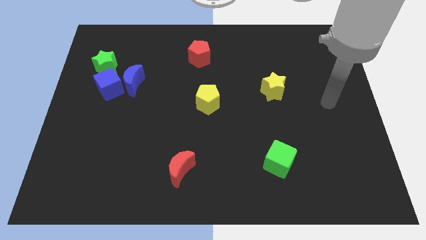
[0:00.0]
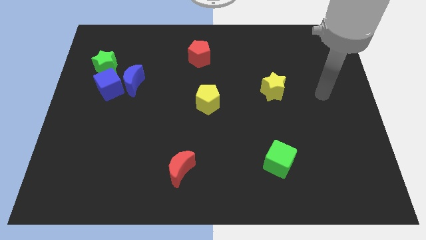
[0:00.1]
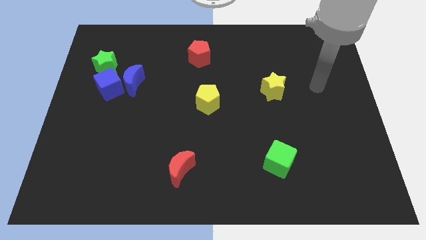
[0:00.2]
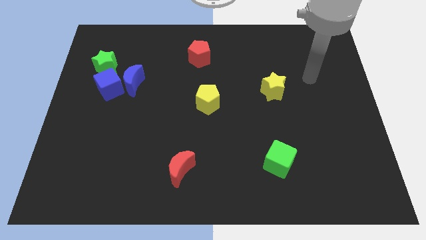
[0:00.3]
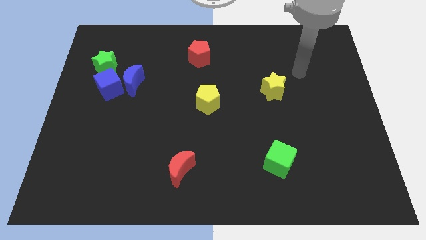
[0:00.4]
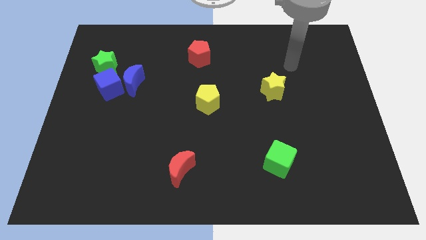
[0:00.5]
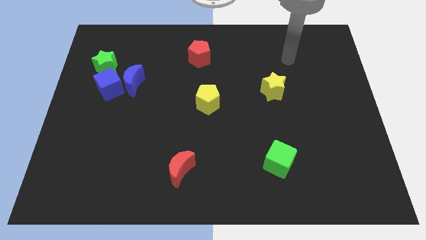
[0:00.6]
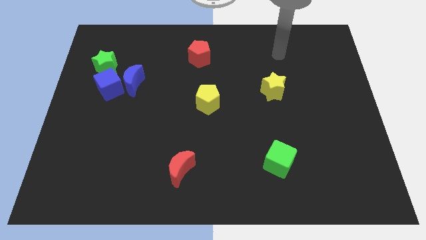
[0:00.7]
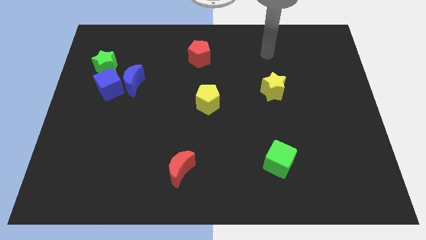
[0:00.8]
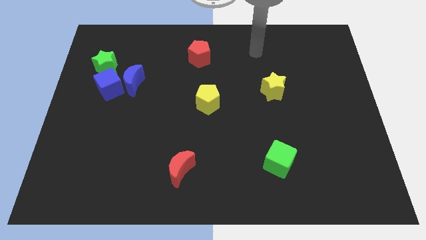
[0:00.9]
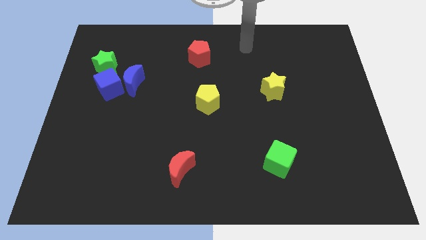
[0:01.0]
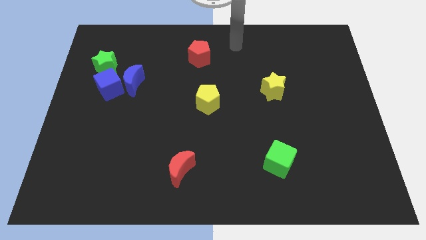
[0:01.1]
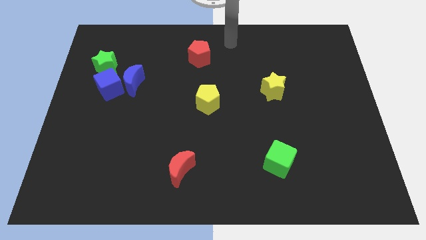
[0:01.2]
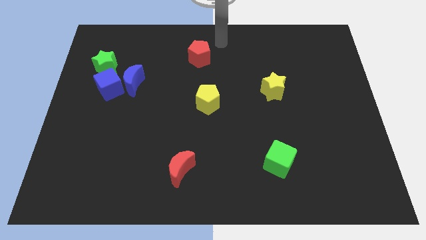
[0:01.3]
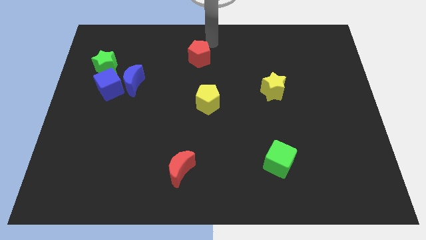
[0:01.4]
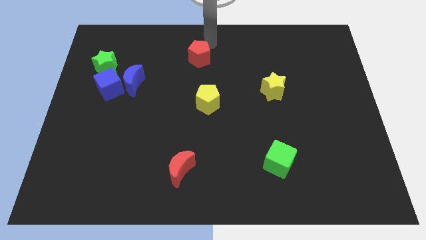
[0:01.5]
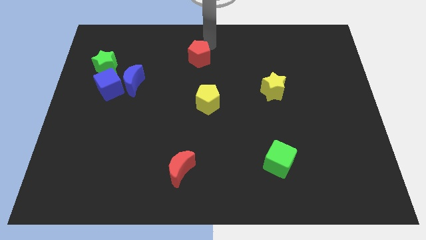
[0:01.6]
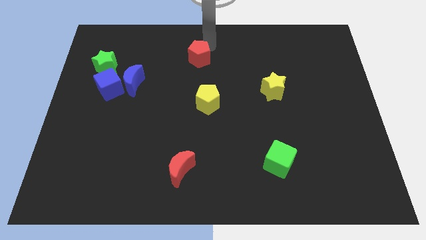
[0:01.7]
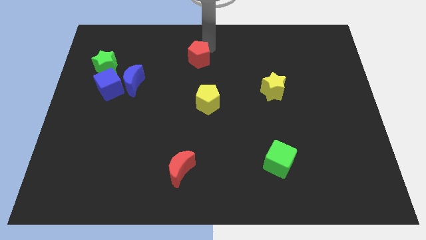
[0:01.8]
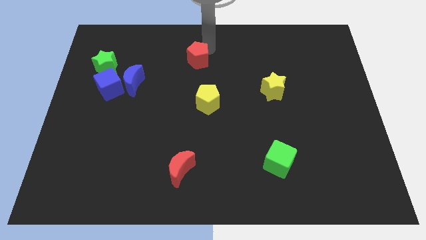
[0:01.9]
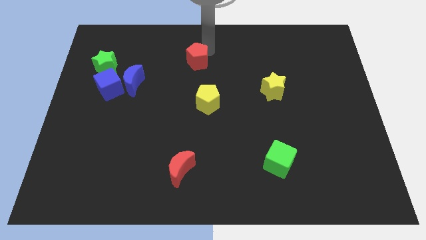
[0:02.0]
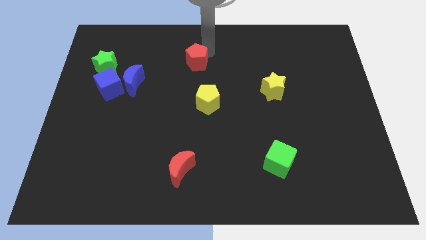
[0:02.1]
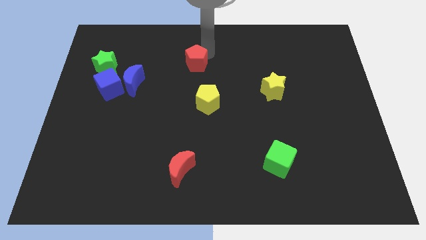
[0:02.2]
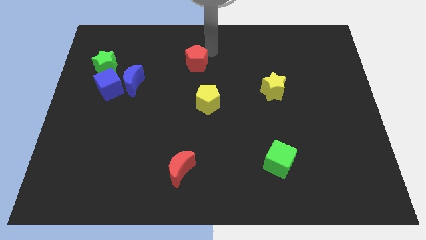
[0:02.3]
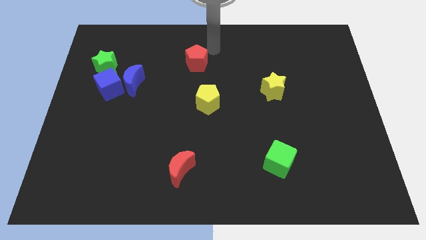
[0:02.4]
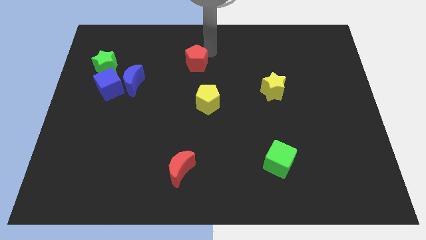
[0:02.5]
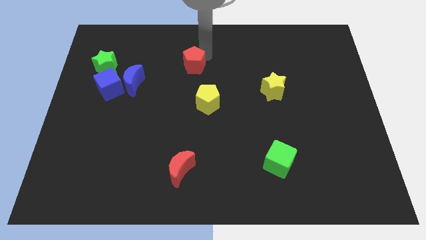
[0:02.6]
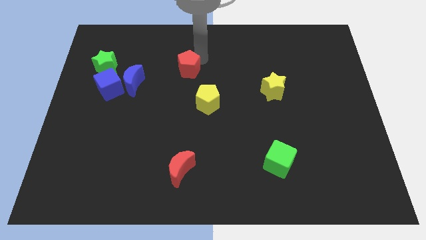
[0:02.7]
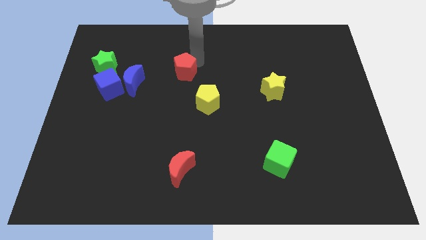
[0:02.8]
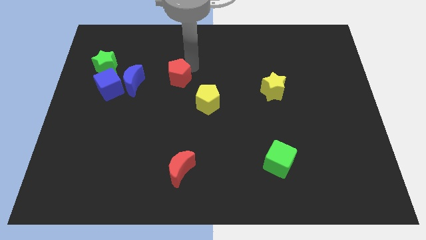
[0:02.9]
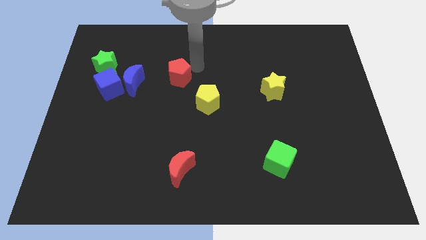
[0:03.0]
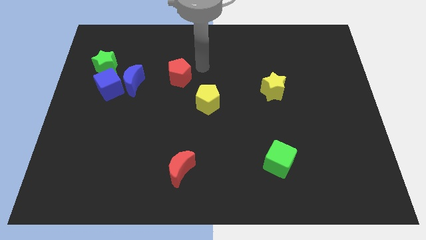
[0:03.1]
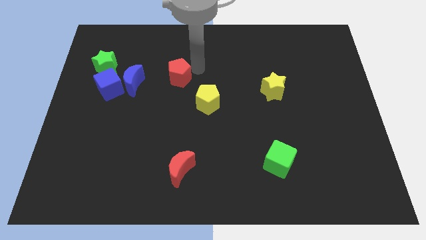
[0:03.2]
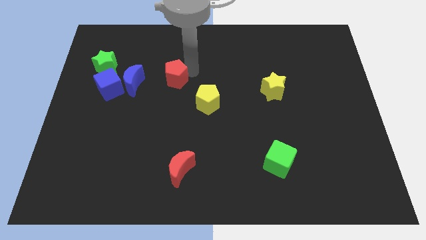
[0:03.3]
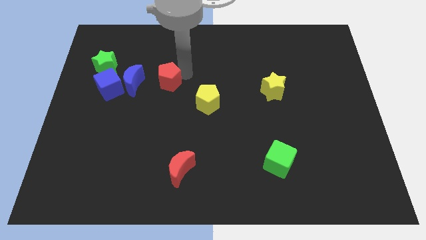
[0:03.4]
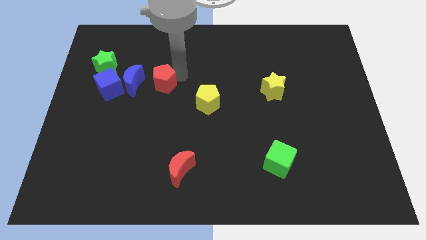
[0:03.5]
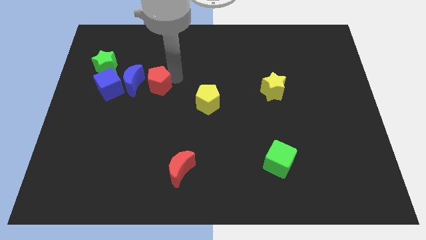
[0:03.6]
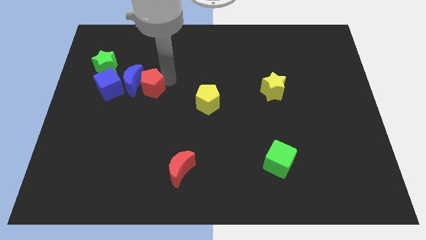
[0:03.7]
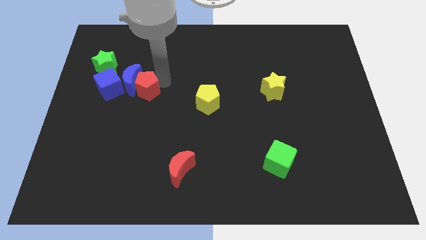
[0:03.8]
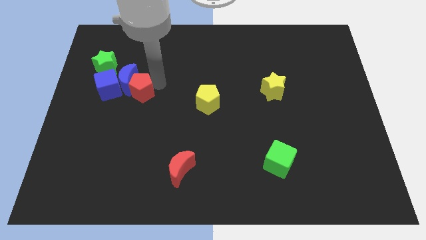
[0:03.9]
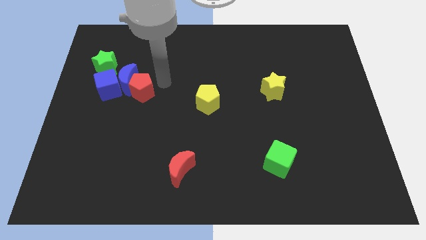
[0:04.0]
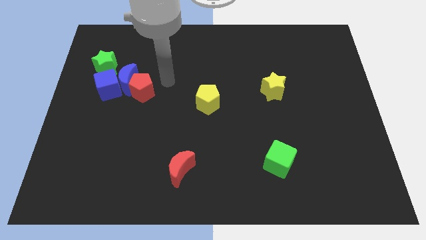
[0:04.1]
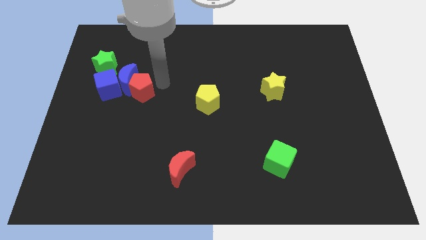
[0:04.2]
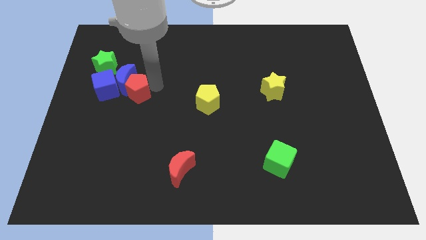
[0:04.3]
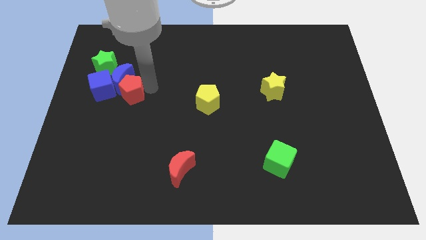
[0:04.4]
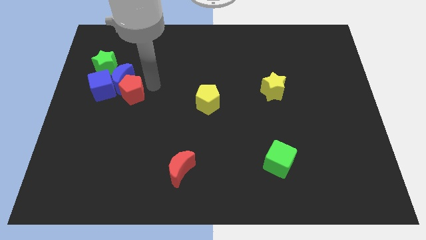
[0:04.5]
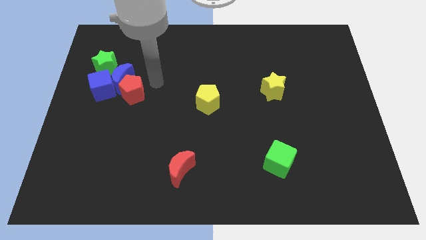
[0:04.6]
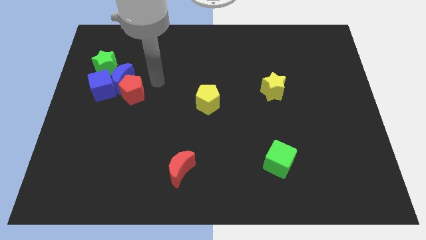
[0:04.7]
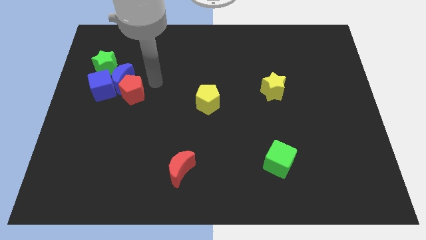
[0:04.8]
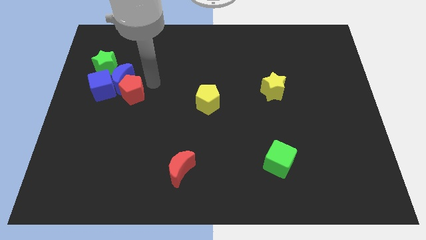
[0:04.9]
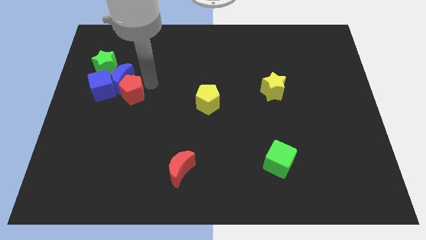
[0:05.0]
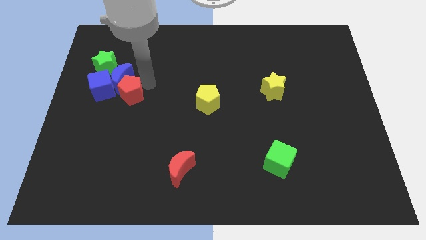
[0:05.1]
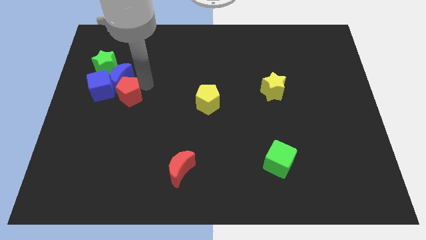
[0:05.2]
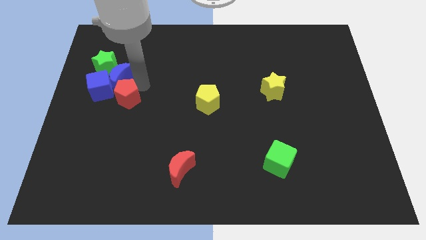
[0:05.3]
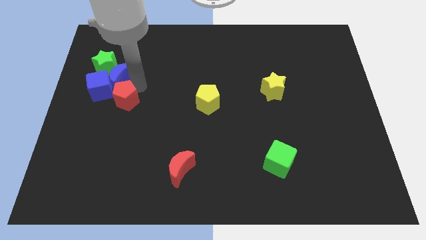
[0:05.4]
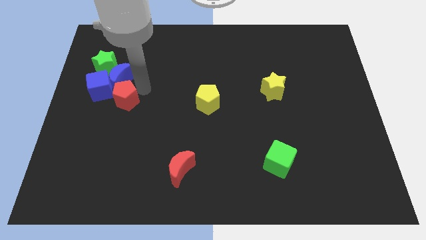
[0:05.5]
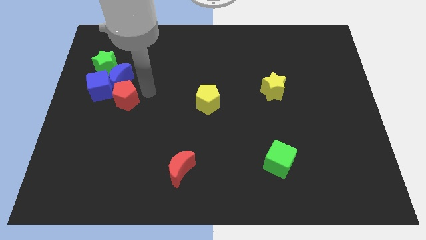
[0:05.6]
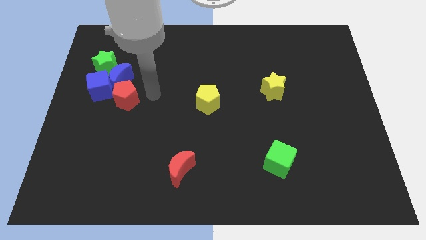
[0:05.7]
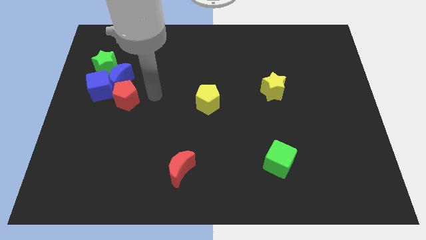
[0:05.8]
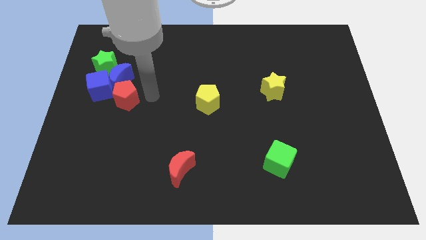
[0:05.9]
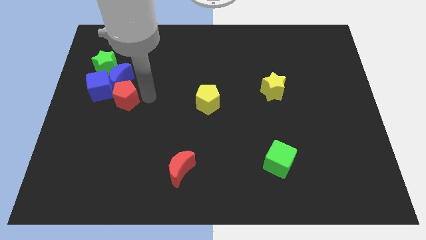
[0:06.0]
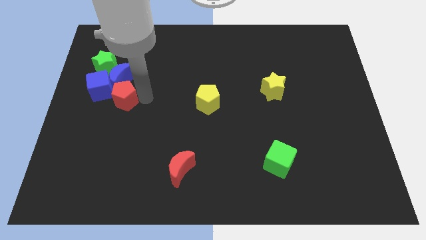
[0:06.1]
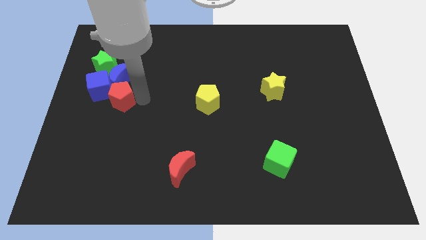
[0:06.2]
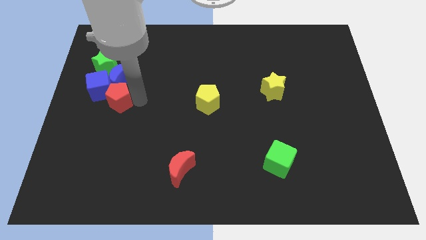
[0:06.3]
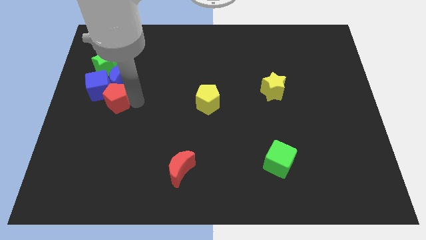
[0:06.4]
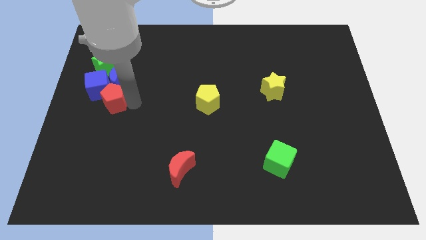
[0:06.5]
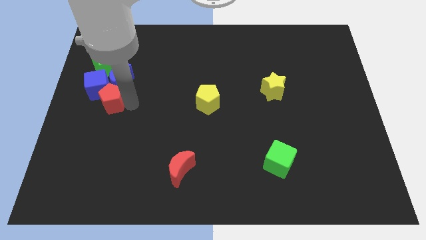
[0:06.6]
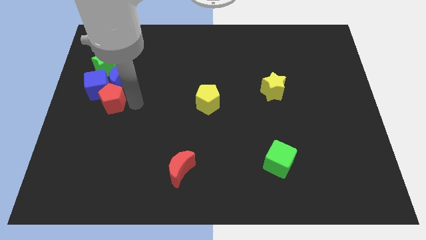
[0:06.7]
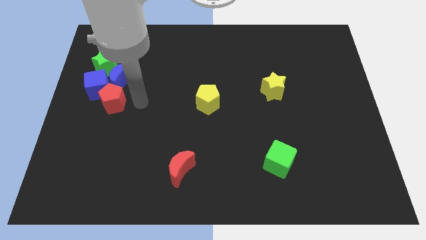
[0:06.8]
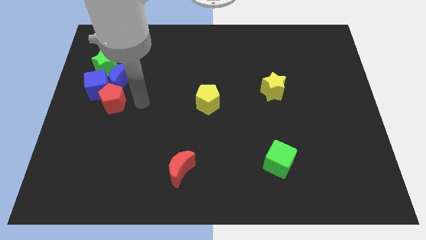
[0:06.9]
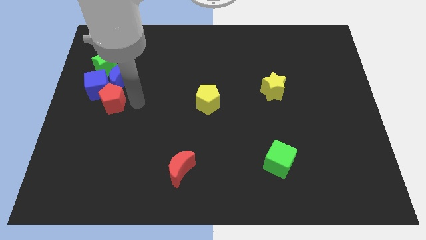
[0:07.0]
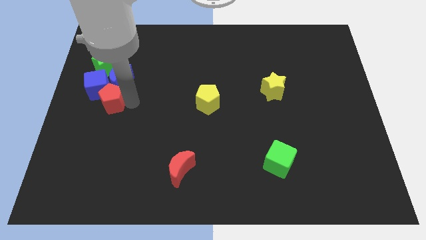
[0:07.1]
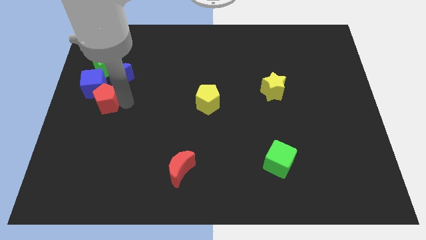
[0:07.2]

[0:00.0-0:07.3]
move the red pentagon to the center left

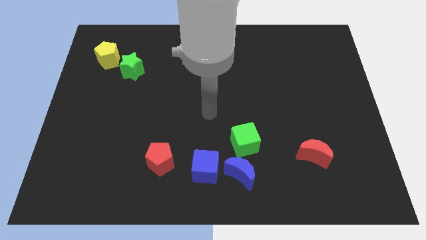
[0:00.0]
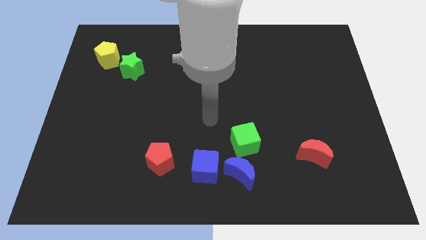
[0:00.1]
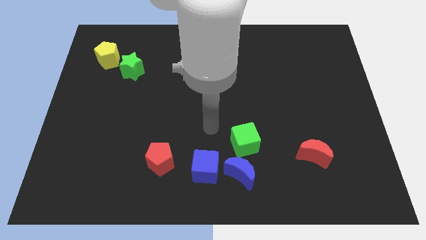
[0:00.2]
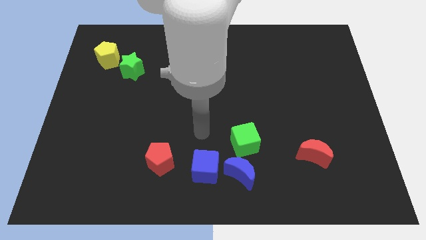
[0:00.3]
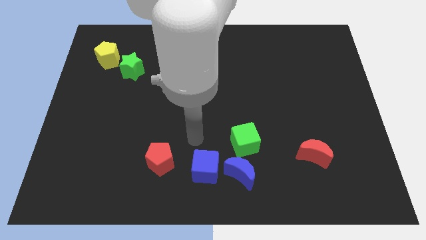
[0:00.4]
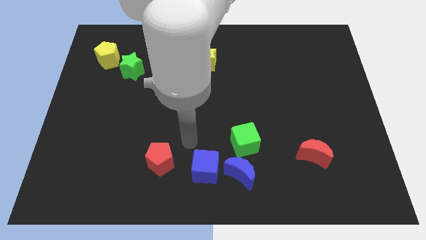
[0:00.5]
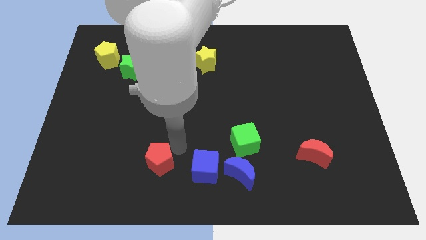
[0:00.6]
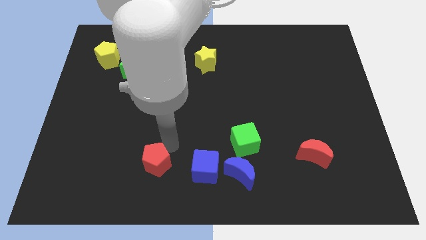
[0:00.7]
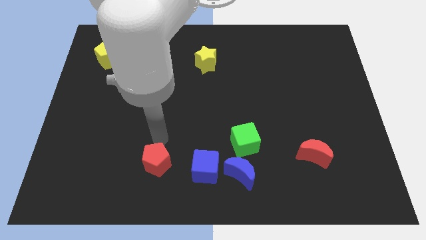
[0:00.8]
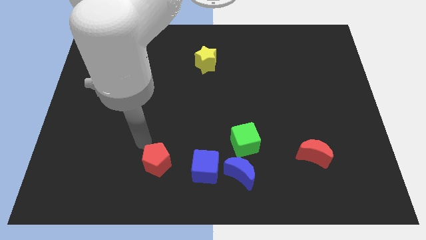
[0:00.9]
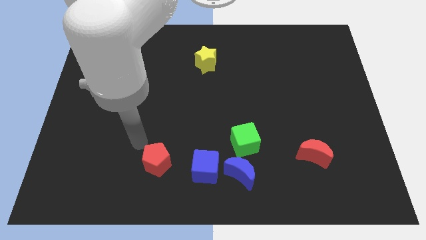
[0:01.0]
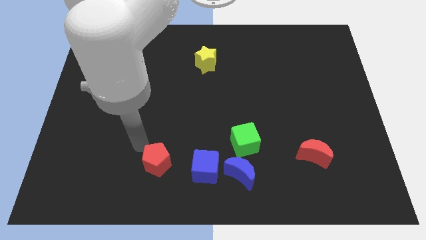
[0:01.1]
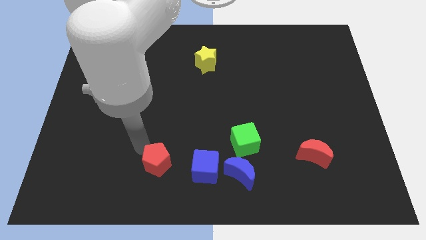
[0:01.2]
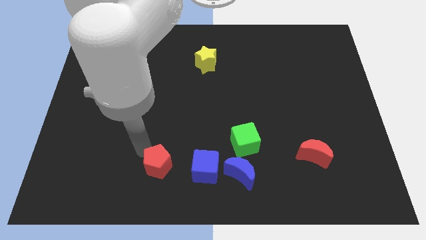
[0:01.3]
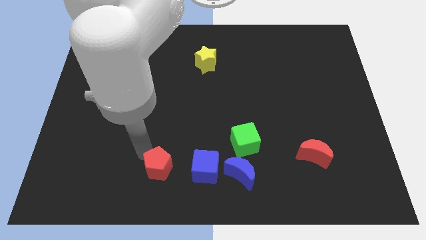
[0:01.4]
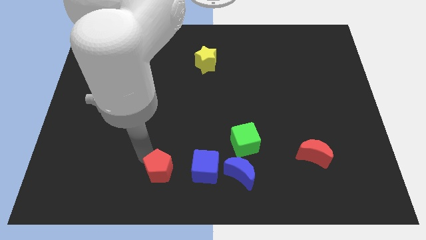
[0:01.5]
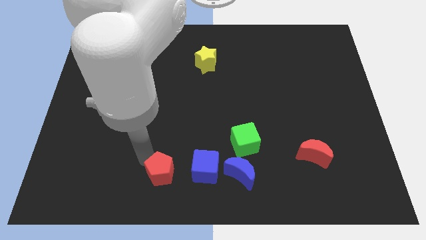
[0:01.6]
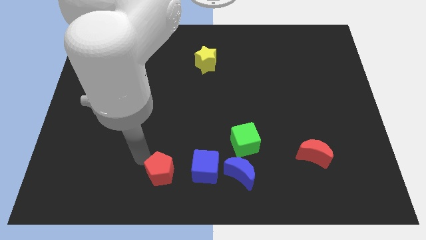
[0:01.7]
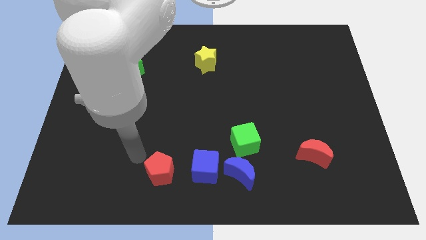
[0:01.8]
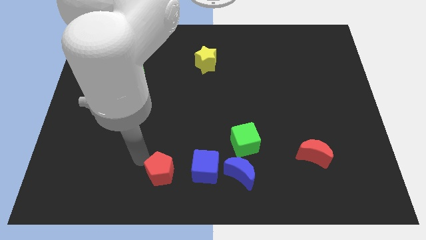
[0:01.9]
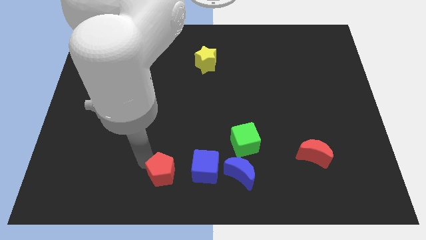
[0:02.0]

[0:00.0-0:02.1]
slide the red pentagon to the bottom side
